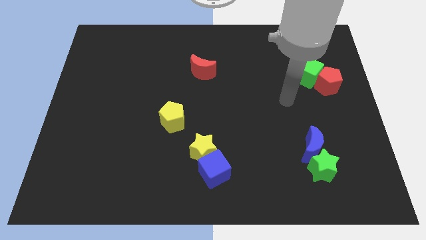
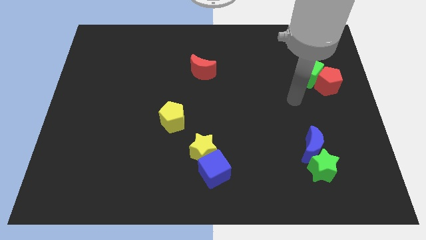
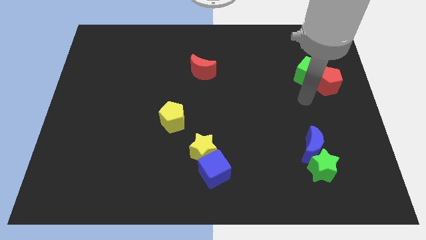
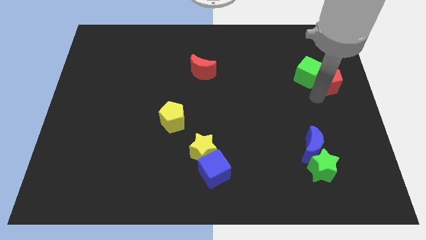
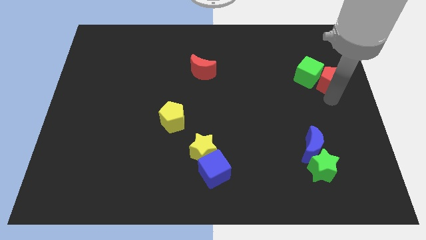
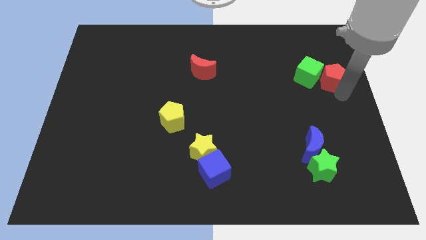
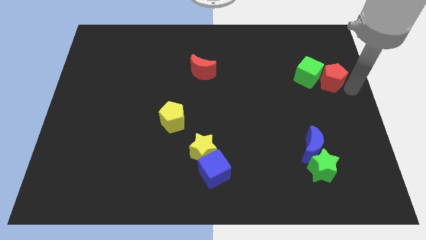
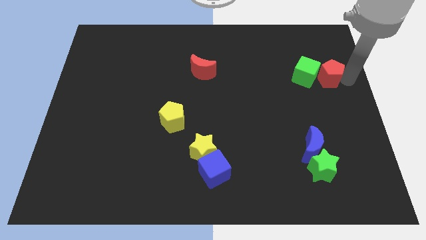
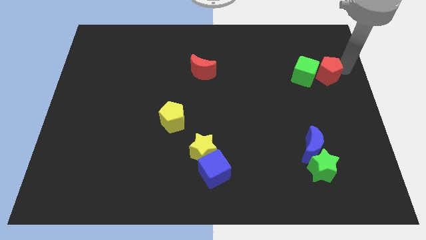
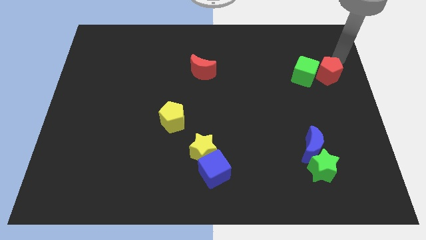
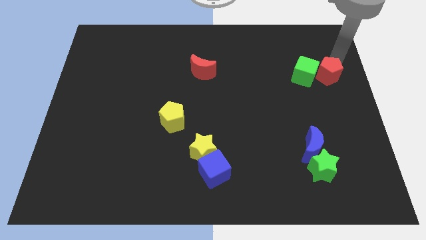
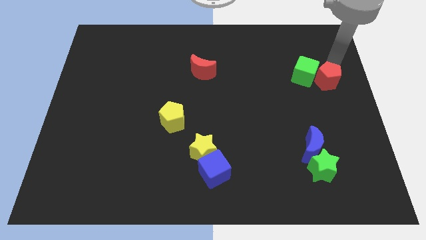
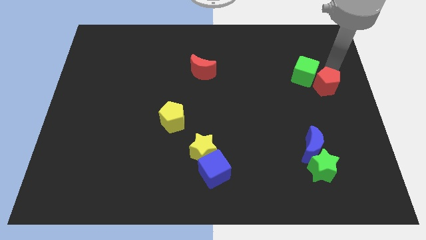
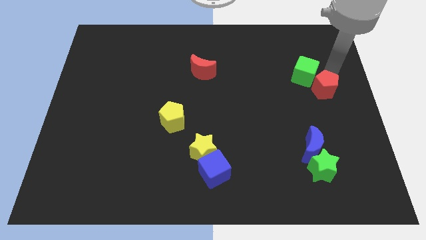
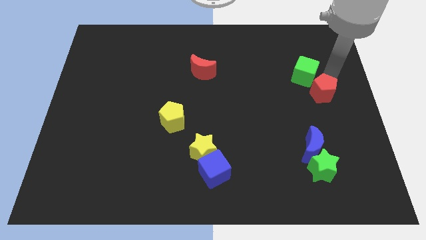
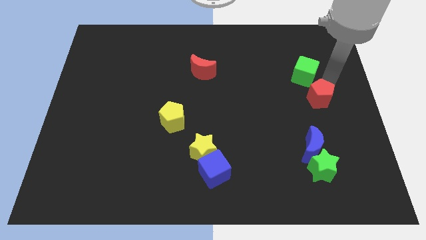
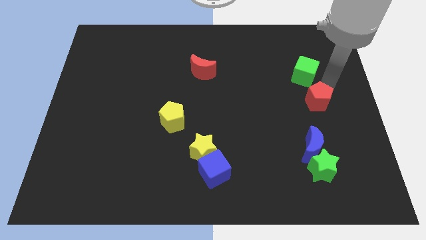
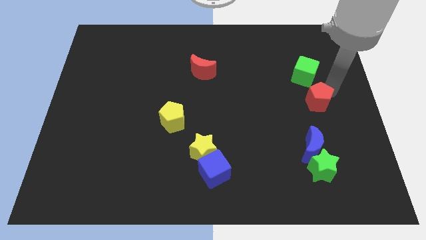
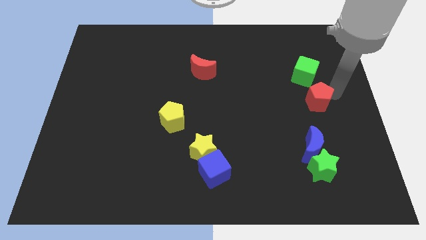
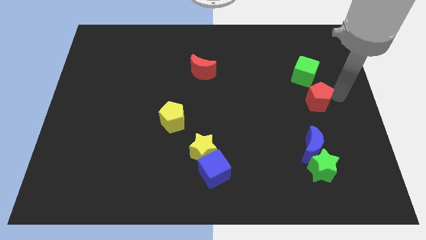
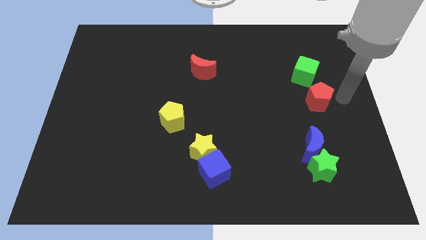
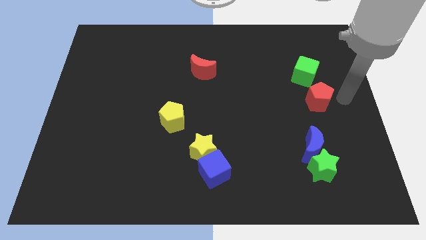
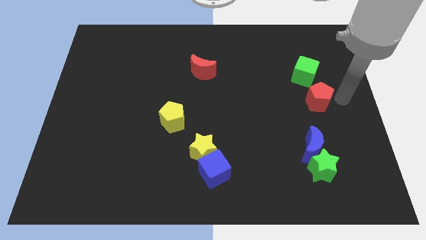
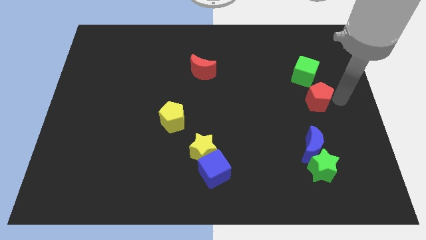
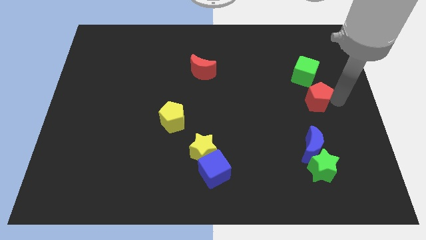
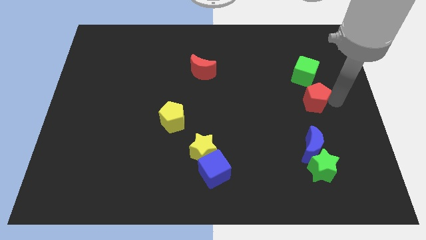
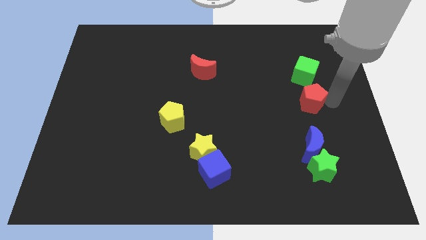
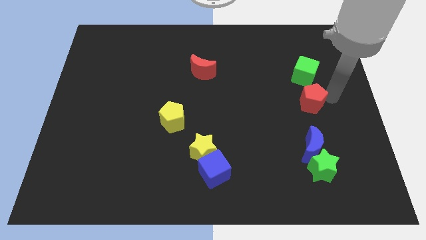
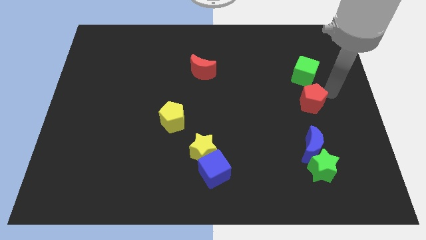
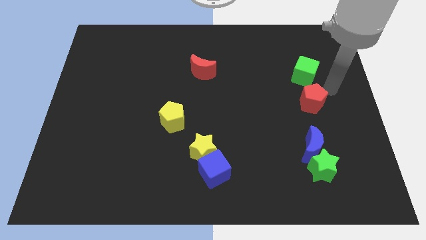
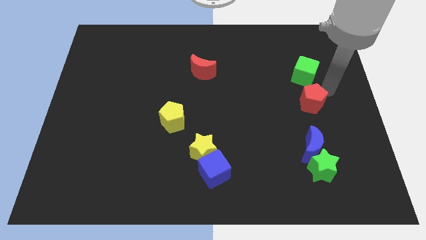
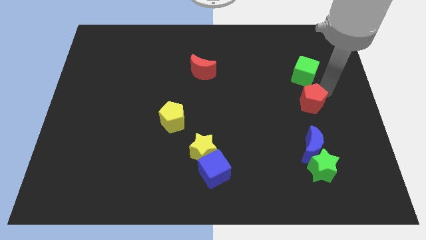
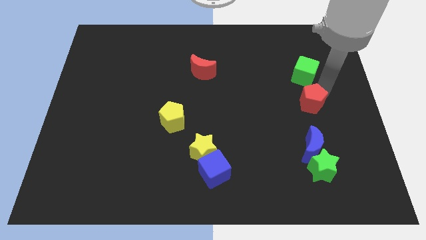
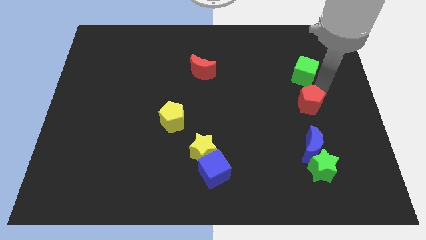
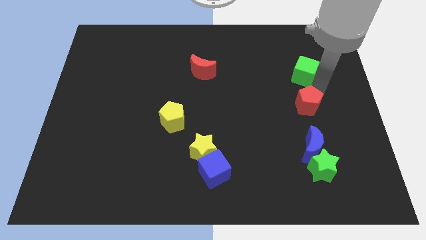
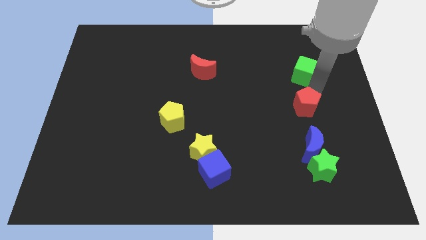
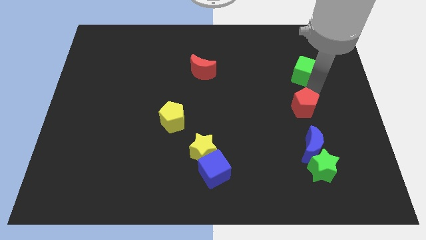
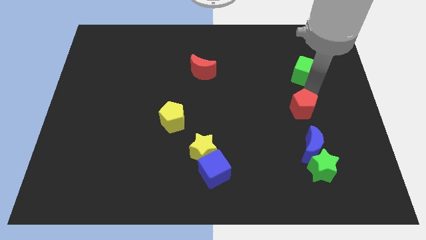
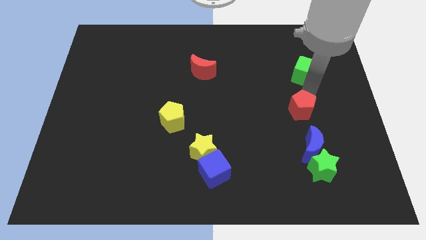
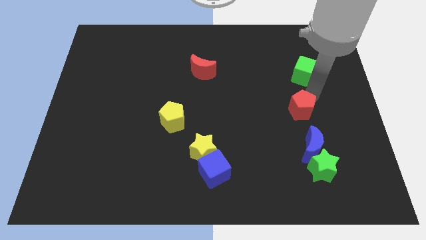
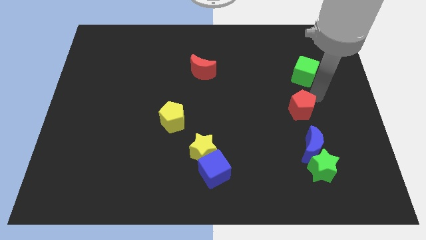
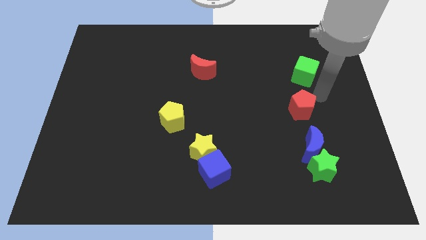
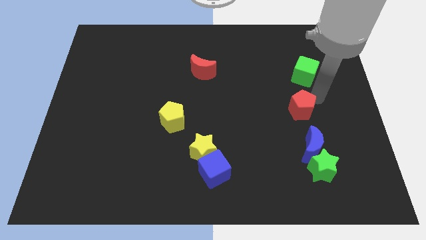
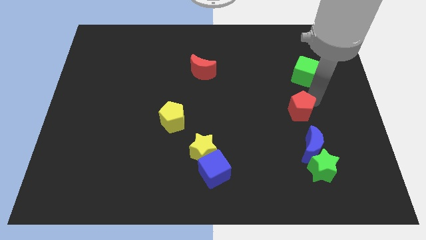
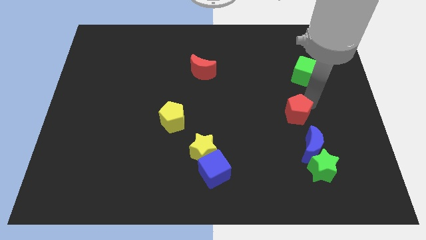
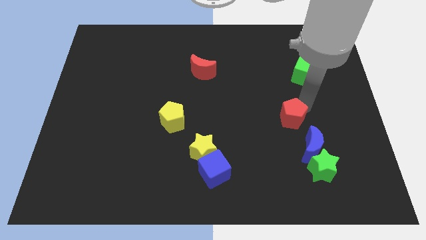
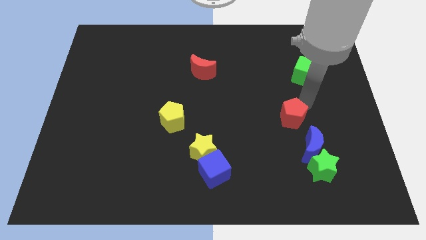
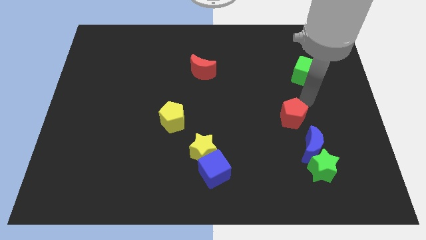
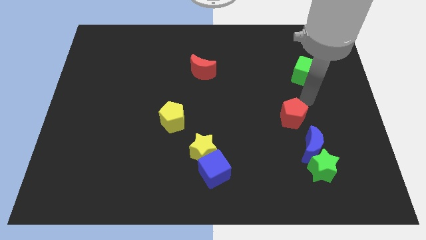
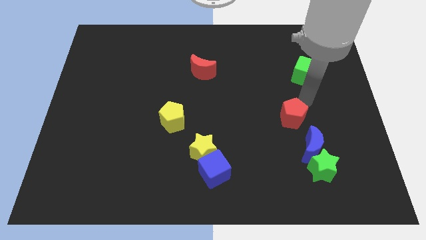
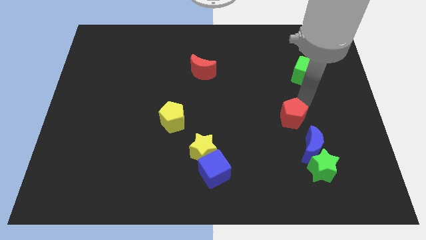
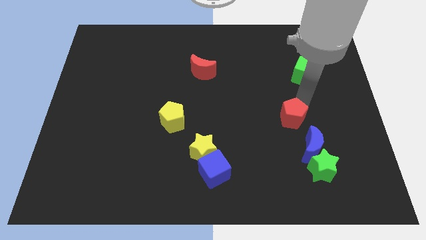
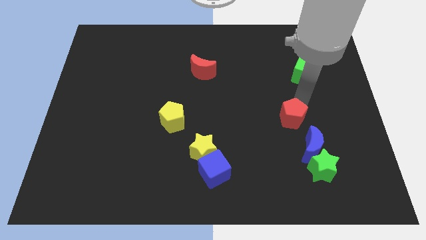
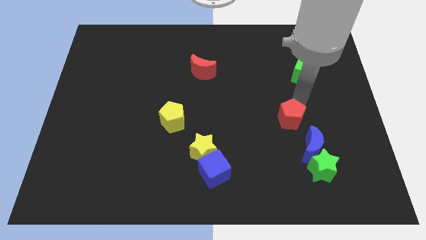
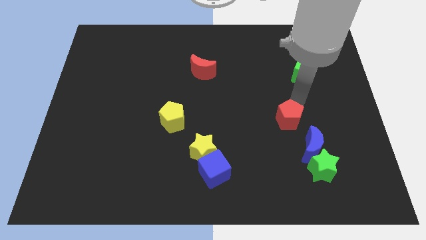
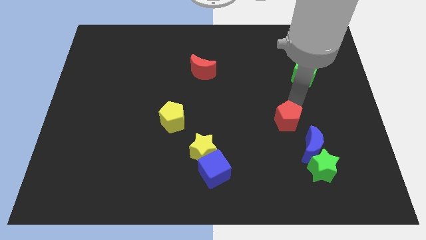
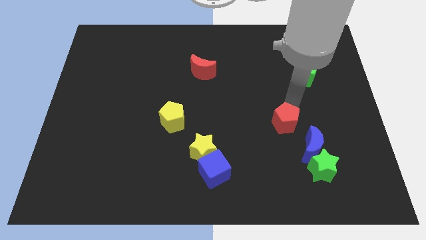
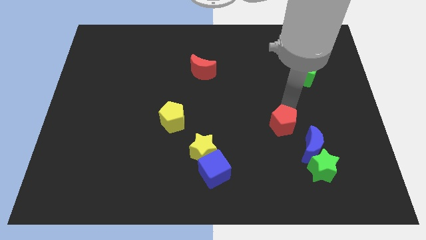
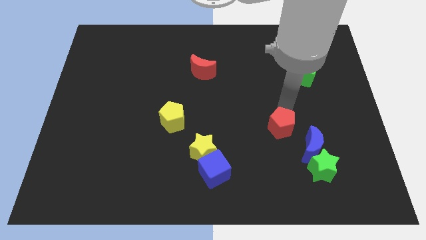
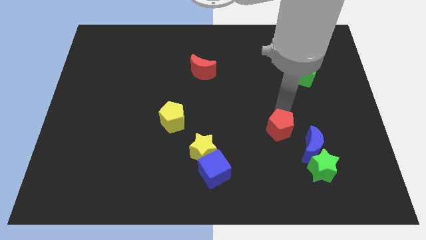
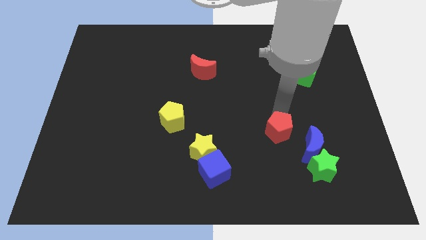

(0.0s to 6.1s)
slide the red pentagon to the left of the blue moon
